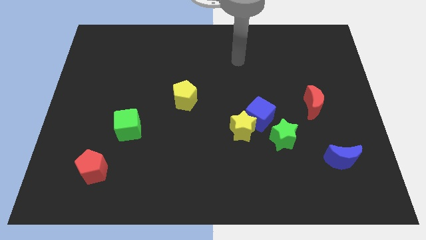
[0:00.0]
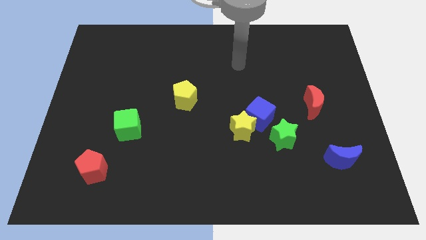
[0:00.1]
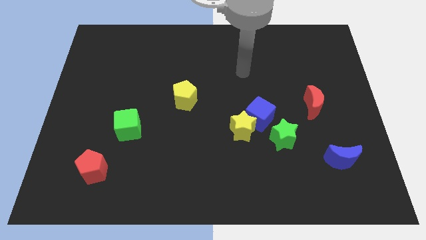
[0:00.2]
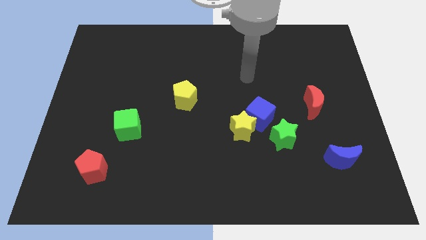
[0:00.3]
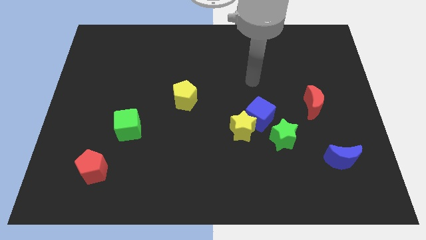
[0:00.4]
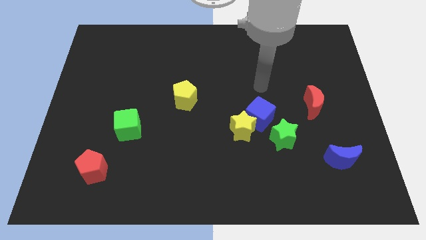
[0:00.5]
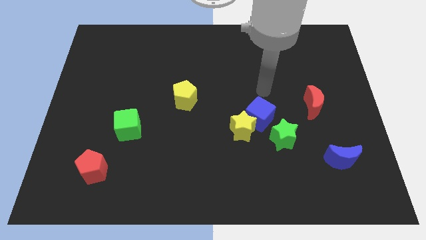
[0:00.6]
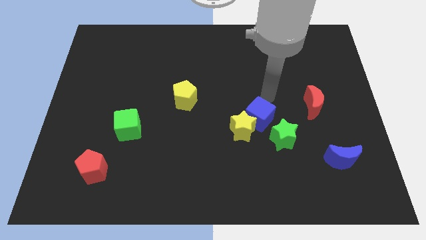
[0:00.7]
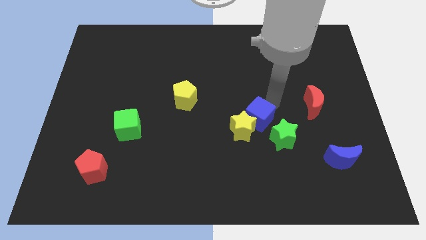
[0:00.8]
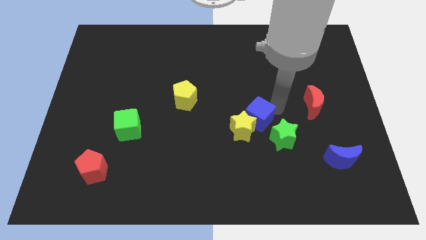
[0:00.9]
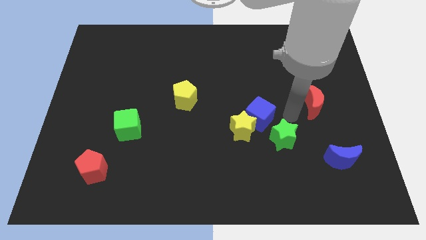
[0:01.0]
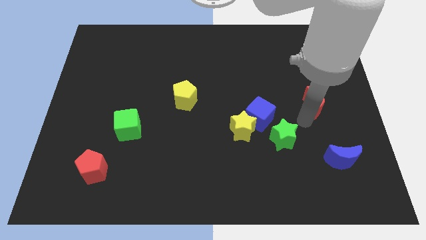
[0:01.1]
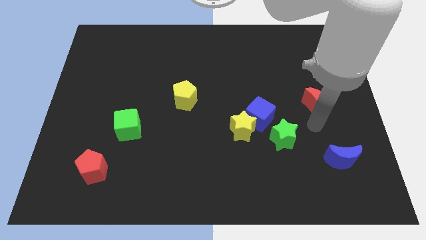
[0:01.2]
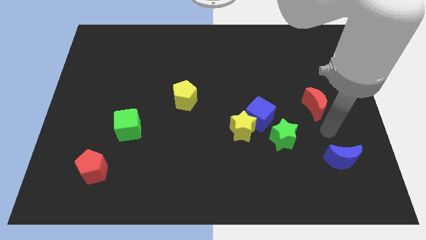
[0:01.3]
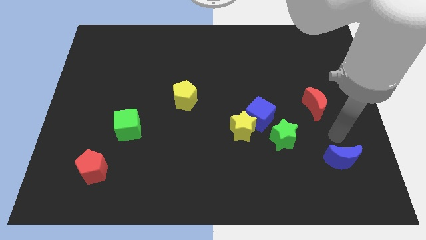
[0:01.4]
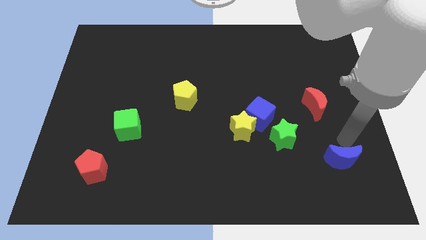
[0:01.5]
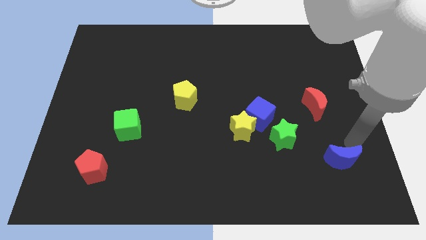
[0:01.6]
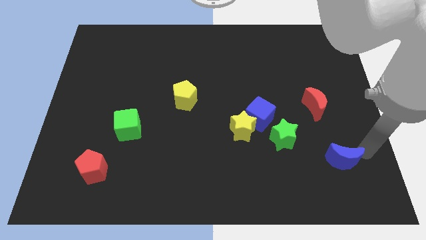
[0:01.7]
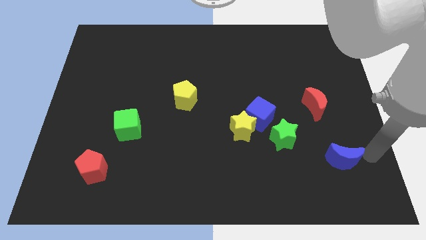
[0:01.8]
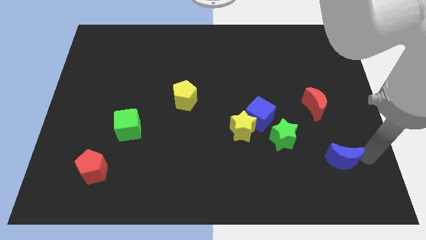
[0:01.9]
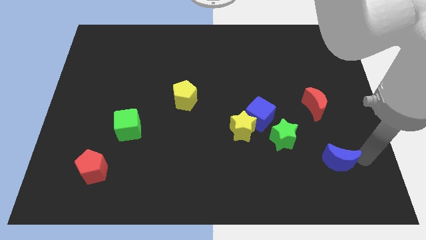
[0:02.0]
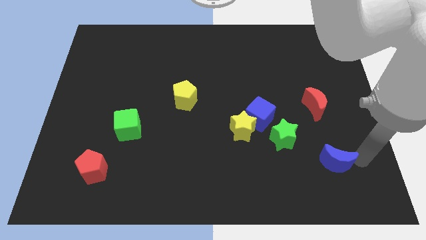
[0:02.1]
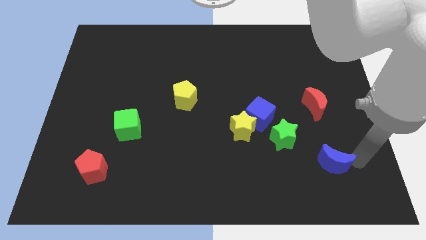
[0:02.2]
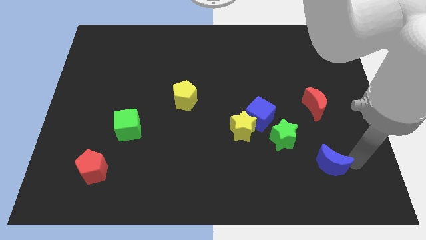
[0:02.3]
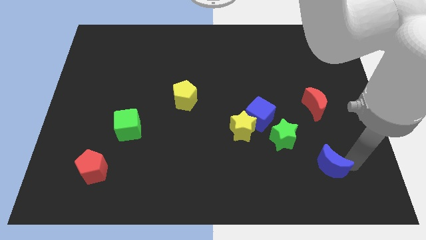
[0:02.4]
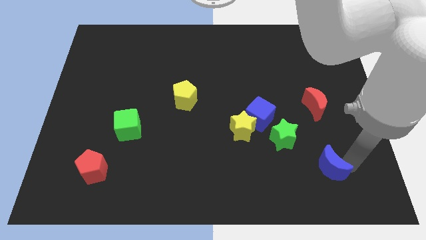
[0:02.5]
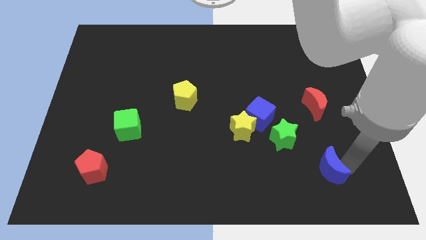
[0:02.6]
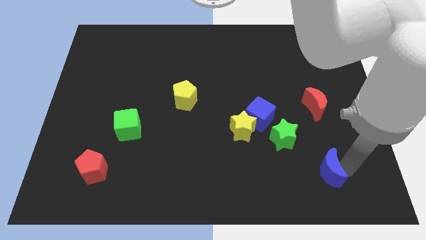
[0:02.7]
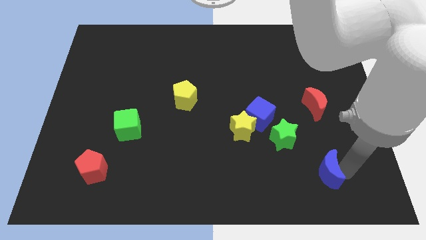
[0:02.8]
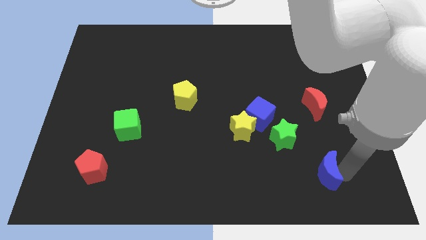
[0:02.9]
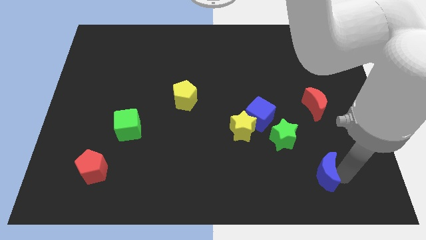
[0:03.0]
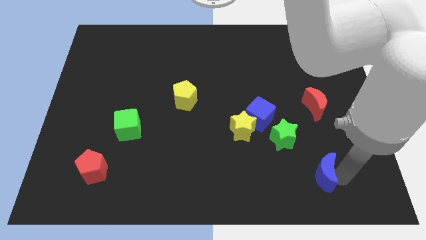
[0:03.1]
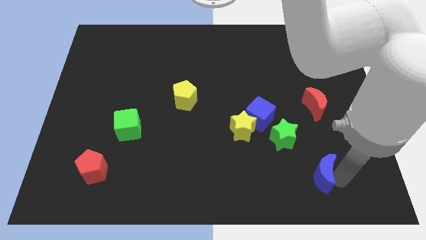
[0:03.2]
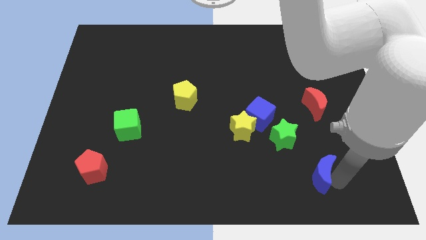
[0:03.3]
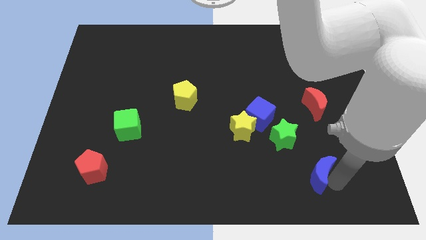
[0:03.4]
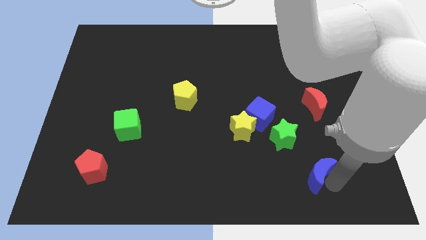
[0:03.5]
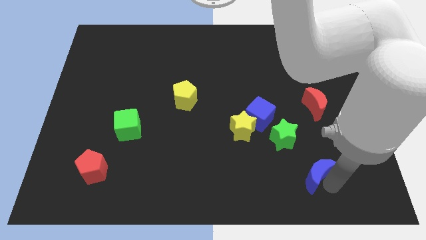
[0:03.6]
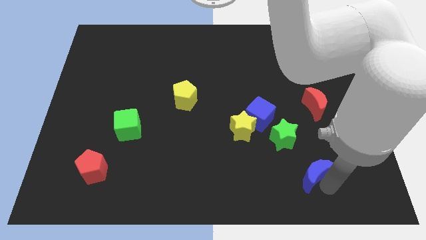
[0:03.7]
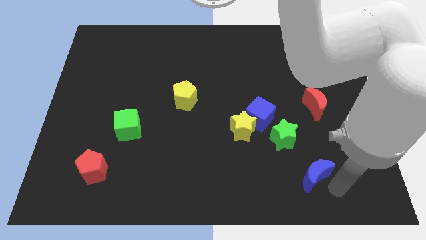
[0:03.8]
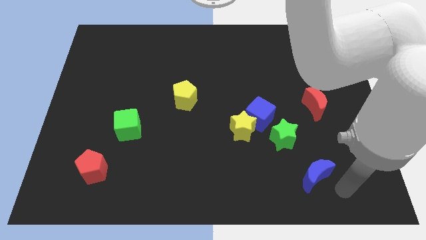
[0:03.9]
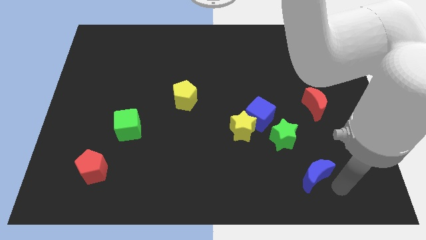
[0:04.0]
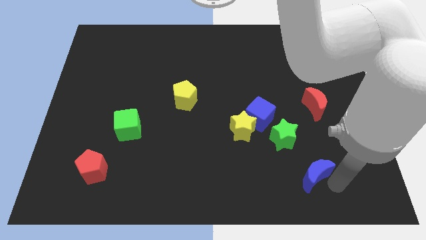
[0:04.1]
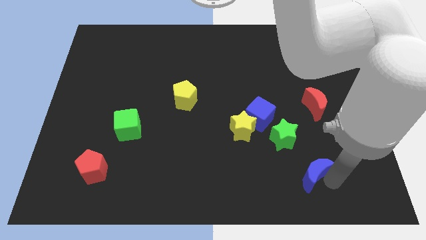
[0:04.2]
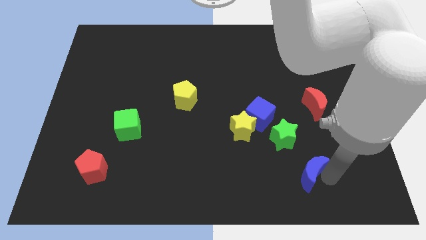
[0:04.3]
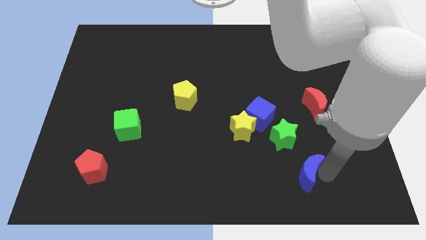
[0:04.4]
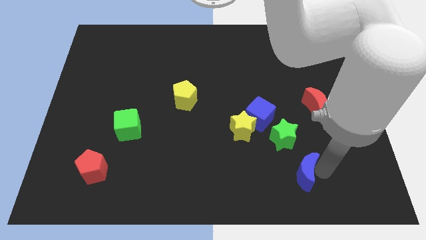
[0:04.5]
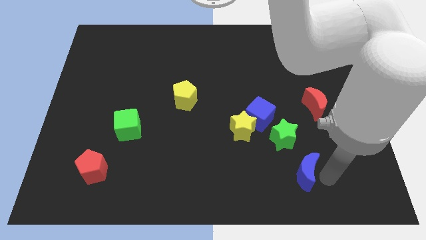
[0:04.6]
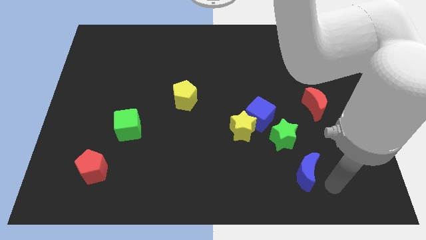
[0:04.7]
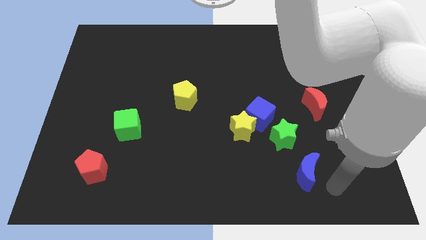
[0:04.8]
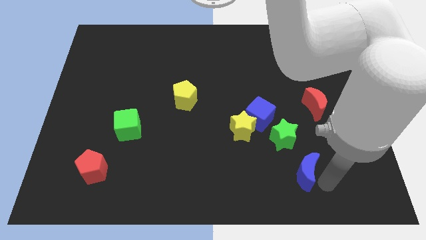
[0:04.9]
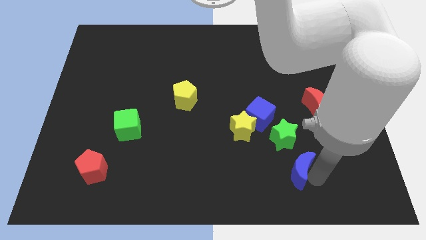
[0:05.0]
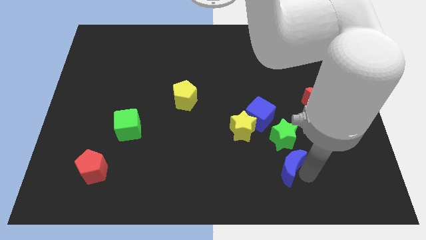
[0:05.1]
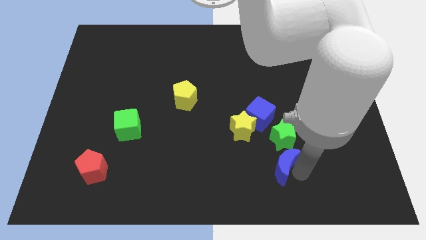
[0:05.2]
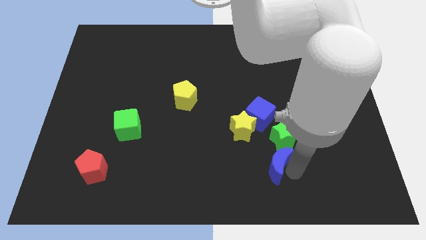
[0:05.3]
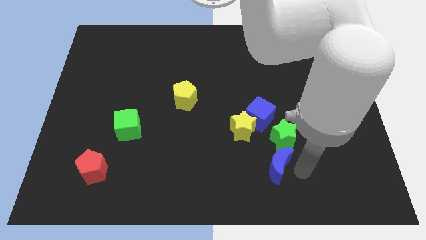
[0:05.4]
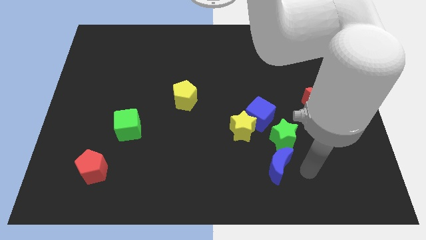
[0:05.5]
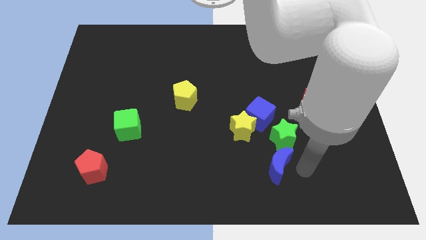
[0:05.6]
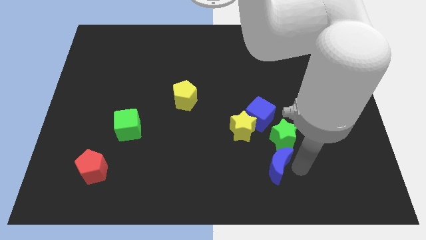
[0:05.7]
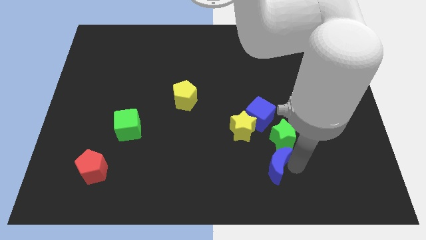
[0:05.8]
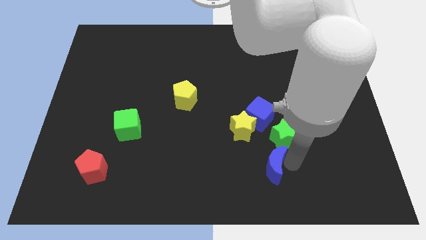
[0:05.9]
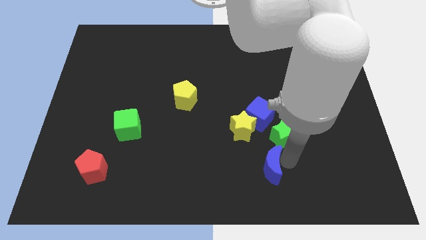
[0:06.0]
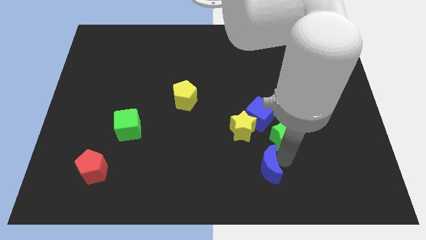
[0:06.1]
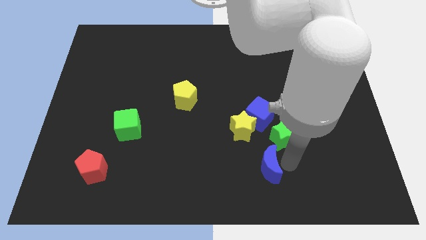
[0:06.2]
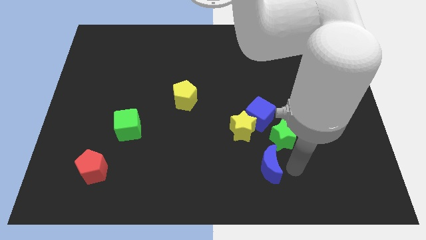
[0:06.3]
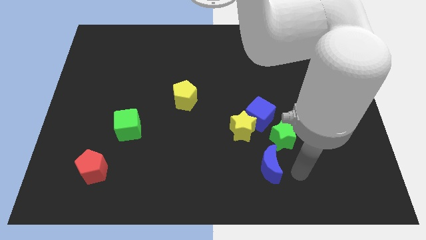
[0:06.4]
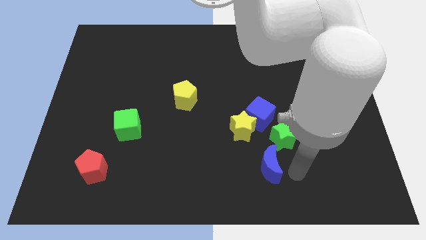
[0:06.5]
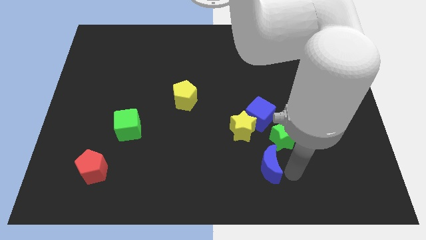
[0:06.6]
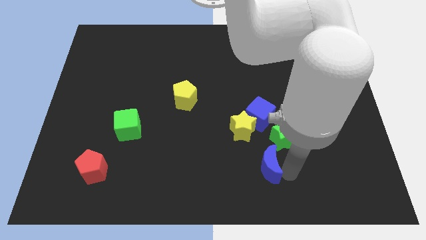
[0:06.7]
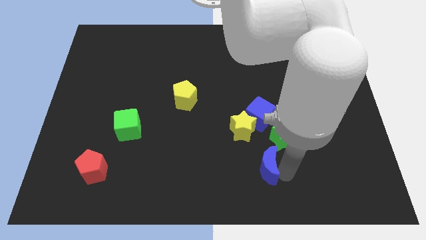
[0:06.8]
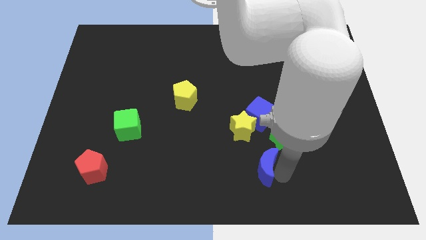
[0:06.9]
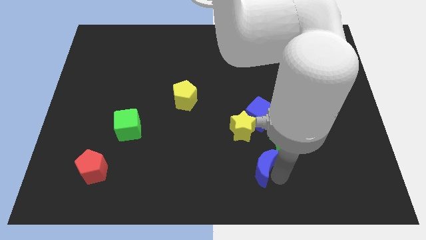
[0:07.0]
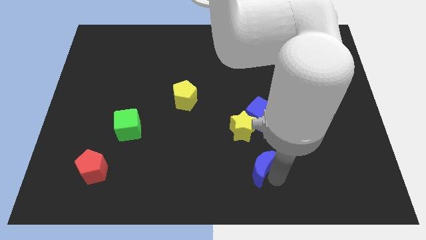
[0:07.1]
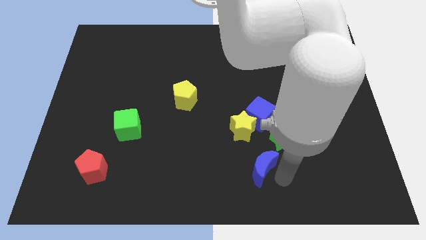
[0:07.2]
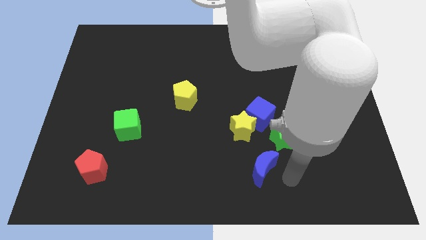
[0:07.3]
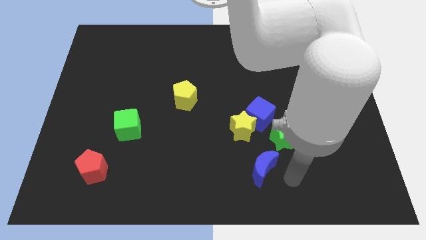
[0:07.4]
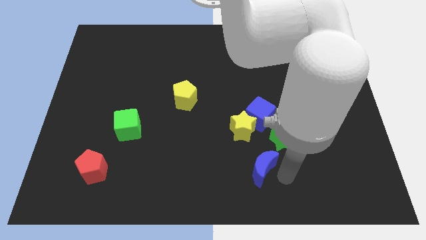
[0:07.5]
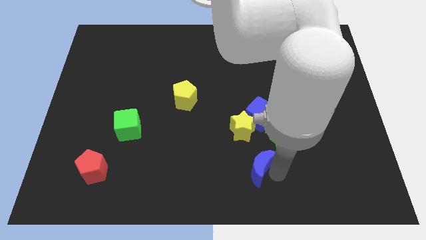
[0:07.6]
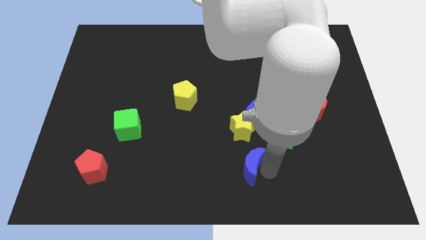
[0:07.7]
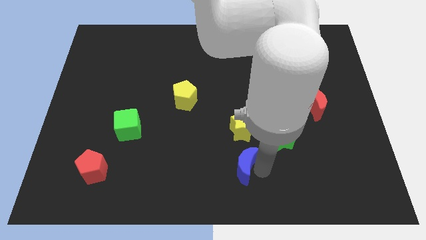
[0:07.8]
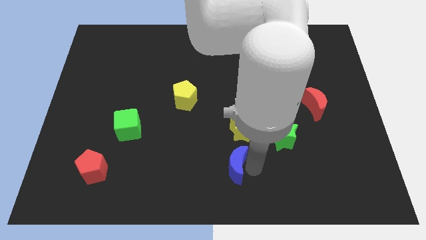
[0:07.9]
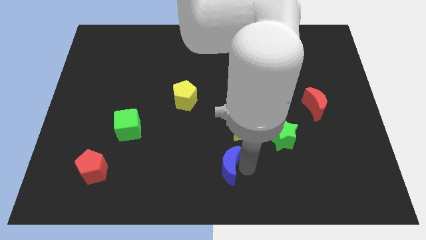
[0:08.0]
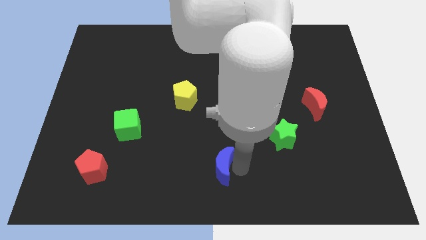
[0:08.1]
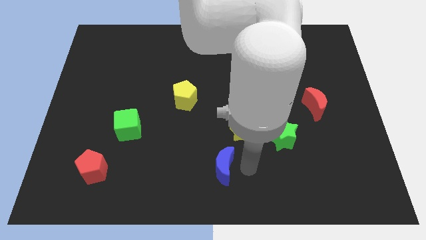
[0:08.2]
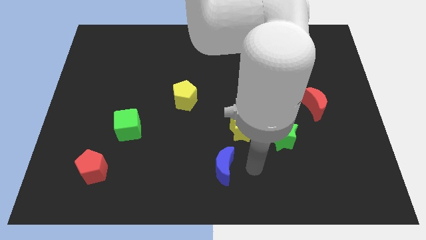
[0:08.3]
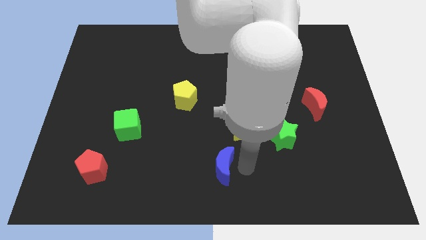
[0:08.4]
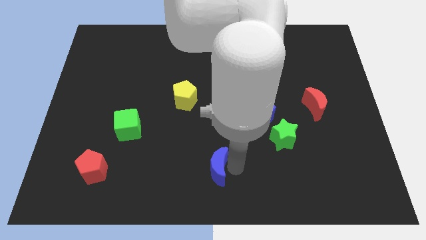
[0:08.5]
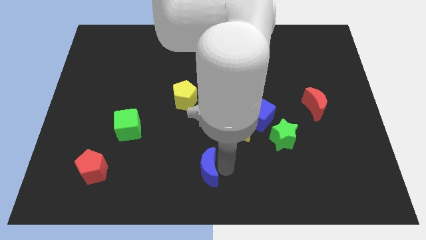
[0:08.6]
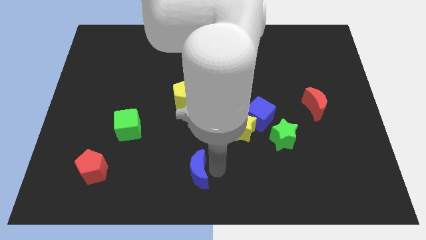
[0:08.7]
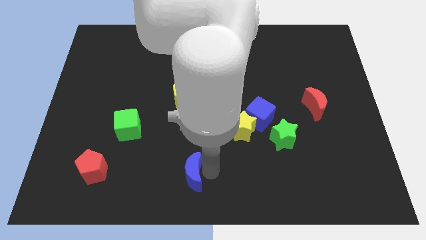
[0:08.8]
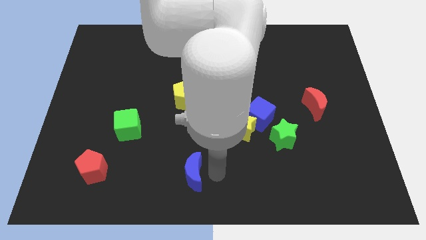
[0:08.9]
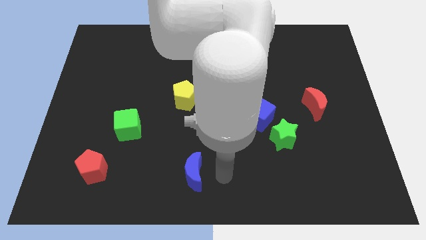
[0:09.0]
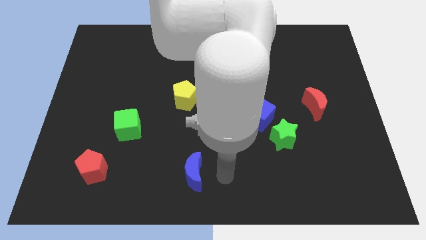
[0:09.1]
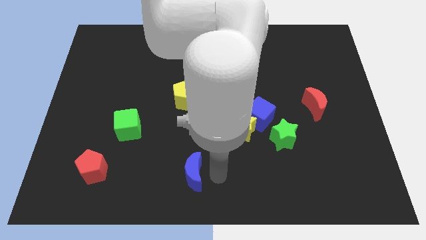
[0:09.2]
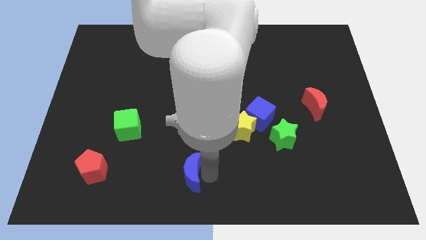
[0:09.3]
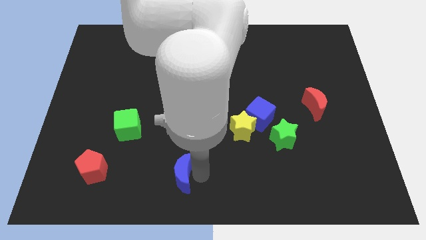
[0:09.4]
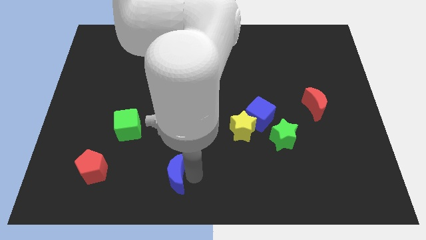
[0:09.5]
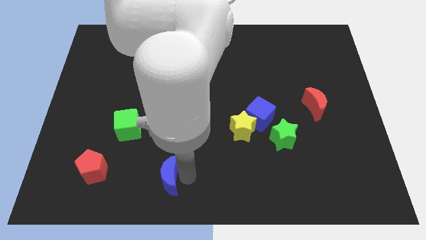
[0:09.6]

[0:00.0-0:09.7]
move the blue moon to the right side of the red pentagon
